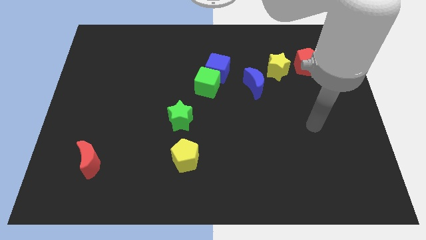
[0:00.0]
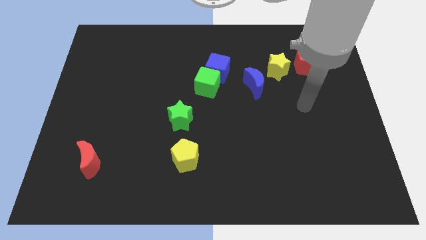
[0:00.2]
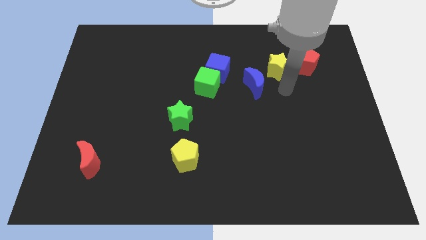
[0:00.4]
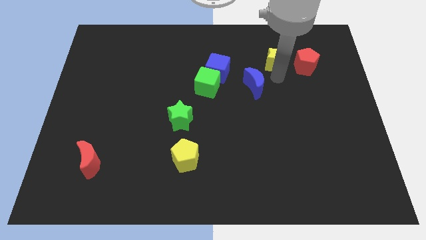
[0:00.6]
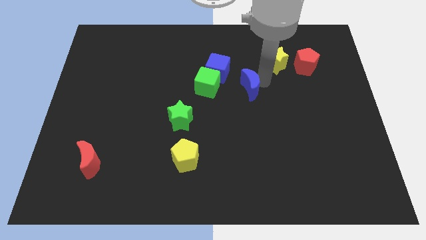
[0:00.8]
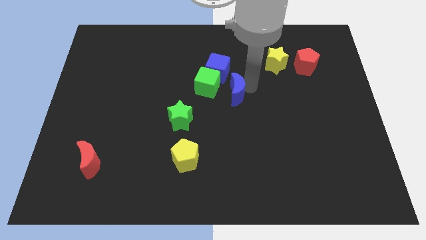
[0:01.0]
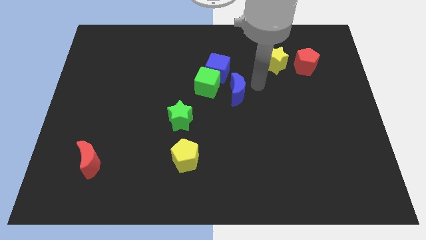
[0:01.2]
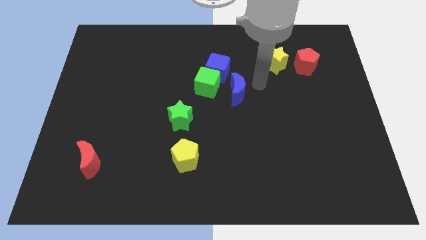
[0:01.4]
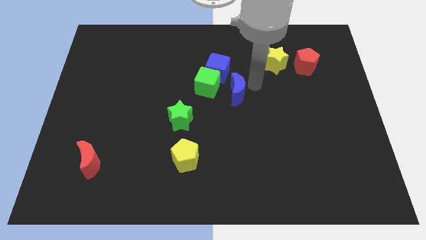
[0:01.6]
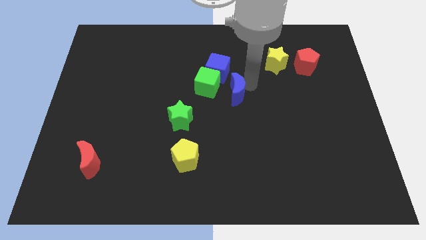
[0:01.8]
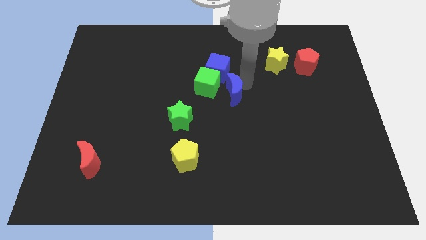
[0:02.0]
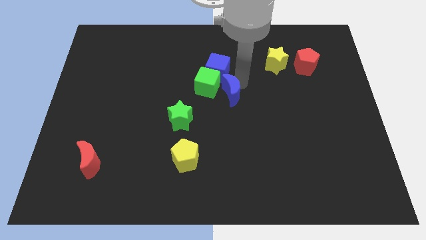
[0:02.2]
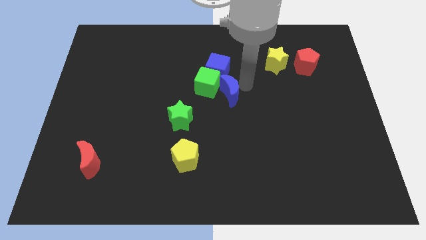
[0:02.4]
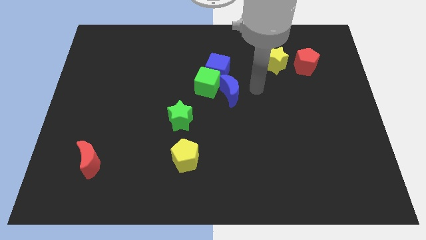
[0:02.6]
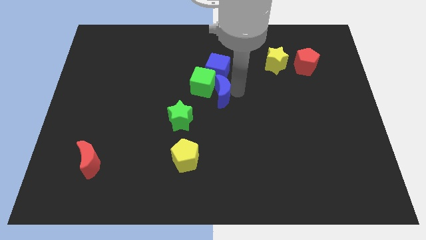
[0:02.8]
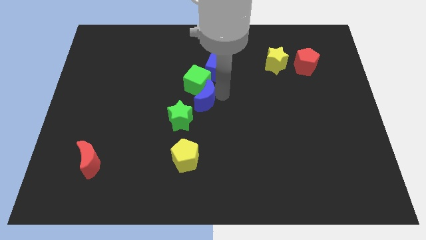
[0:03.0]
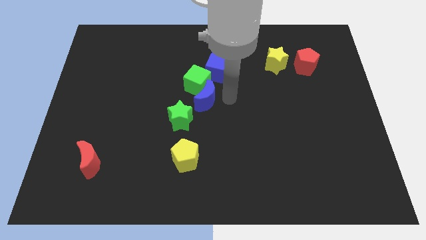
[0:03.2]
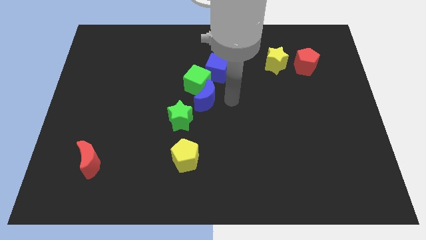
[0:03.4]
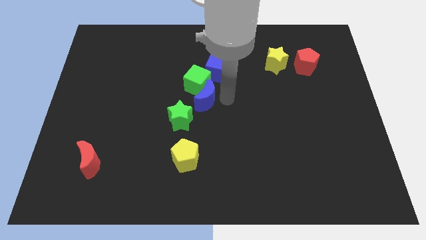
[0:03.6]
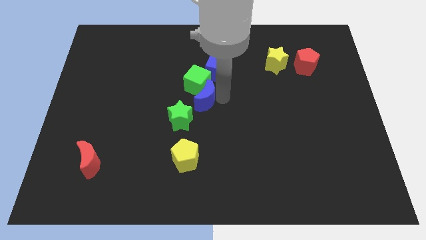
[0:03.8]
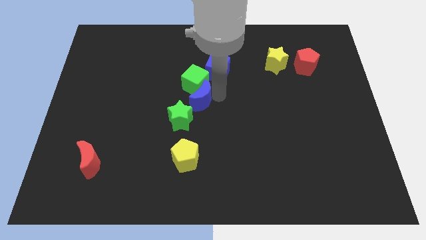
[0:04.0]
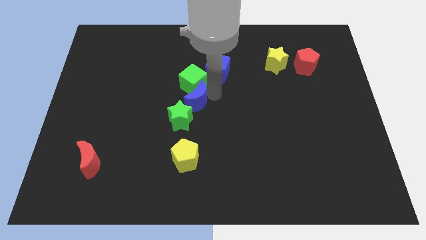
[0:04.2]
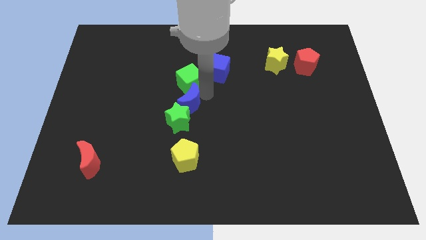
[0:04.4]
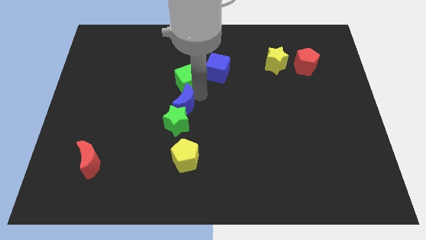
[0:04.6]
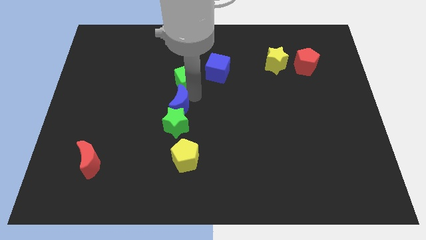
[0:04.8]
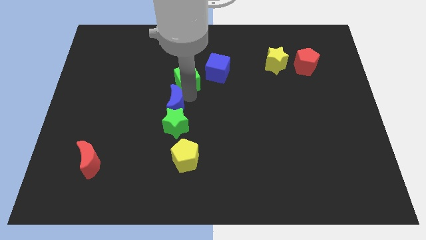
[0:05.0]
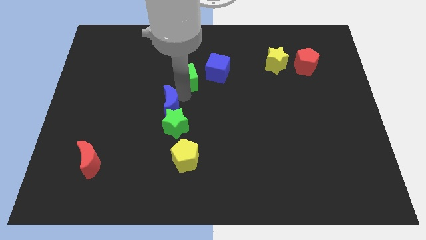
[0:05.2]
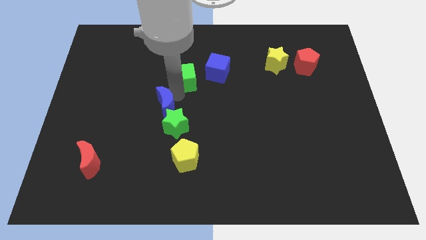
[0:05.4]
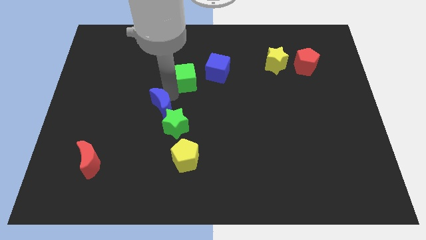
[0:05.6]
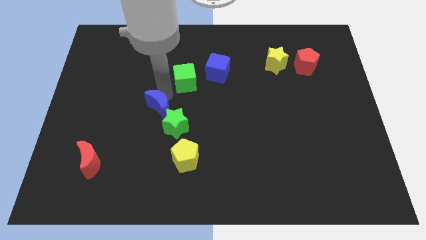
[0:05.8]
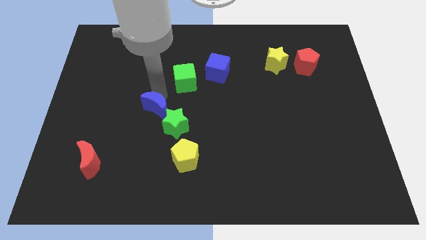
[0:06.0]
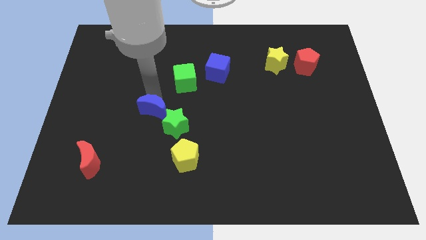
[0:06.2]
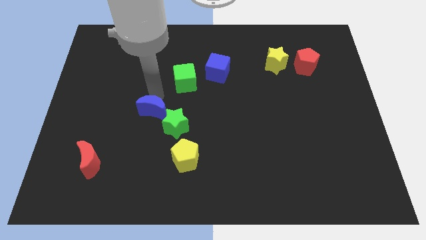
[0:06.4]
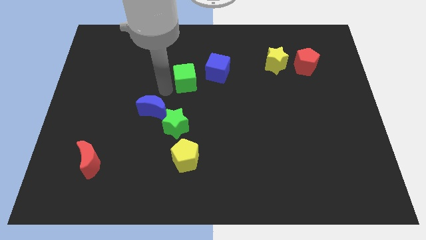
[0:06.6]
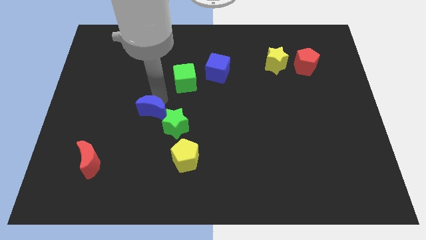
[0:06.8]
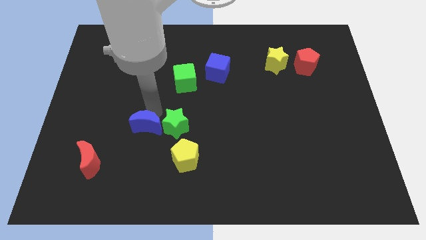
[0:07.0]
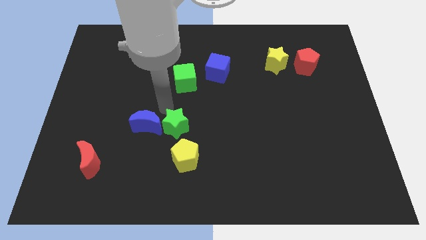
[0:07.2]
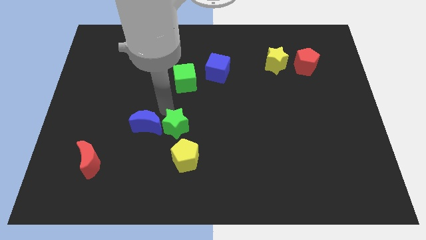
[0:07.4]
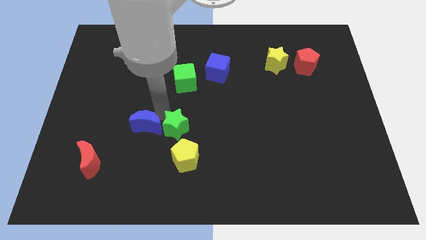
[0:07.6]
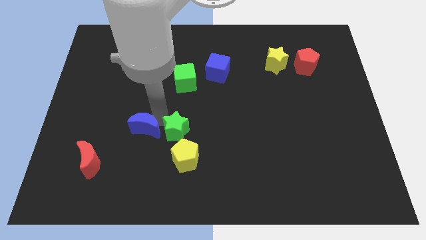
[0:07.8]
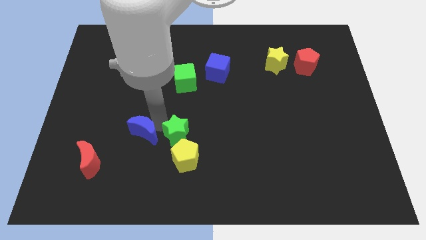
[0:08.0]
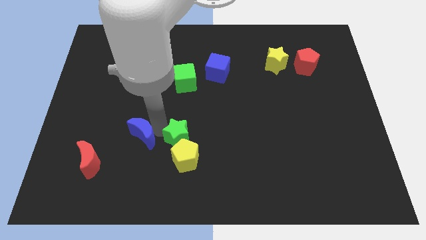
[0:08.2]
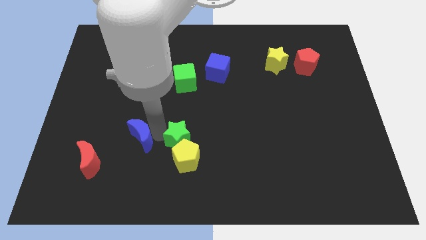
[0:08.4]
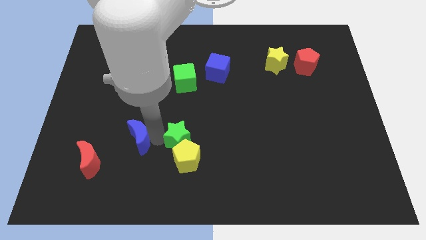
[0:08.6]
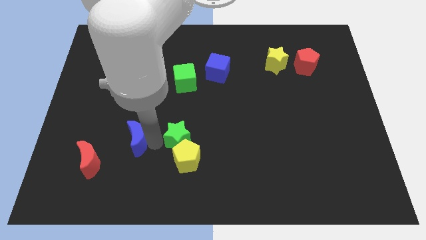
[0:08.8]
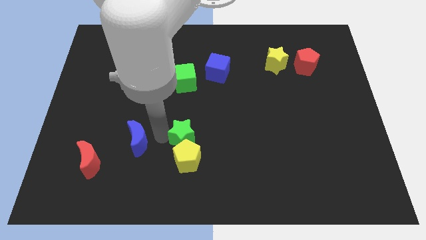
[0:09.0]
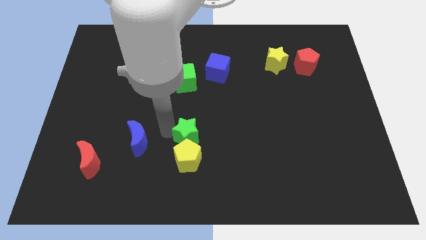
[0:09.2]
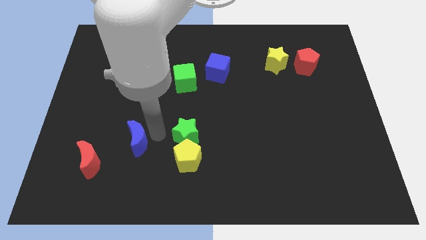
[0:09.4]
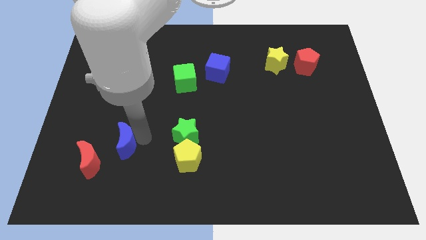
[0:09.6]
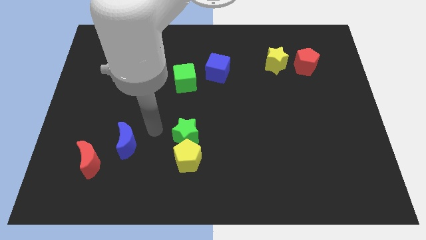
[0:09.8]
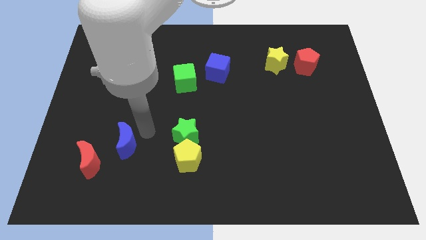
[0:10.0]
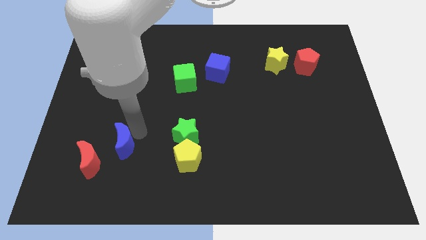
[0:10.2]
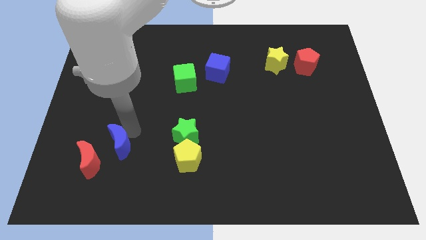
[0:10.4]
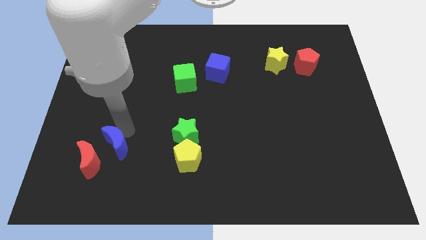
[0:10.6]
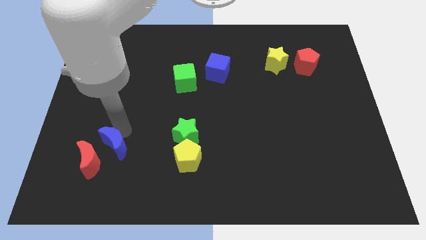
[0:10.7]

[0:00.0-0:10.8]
put the blue moon next to the red moon

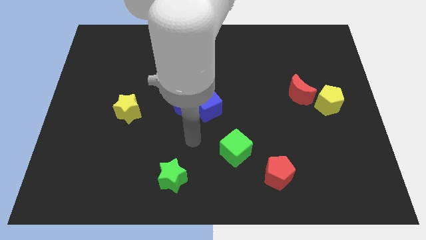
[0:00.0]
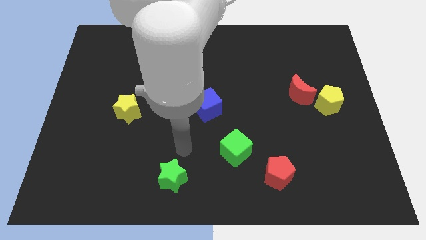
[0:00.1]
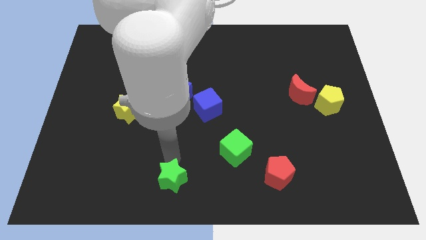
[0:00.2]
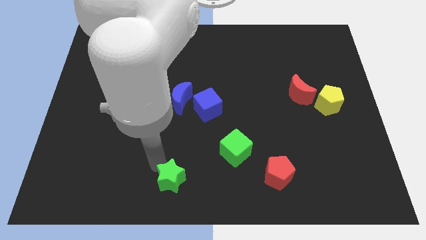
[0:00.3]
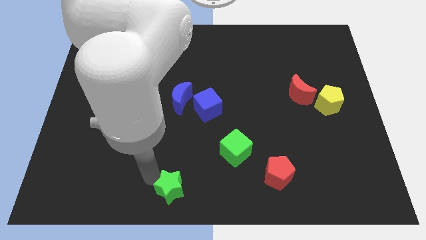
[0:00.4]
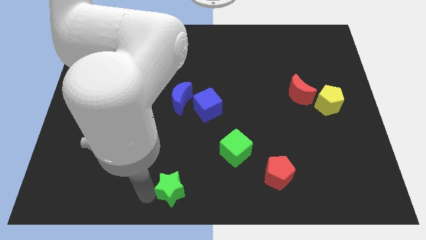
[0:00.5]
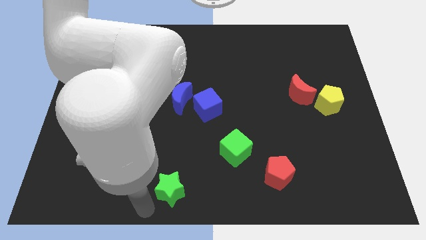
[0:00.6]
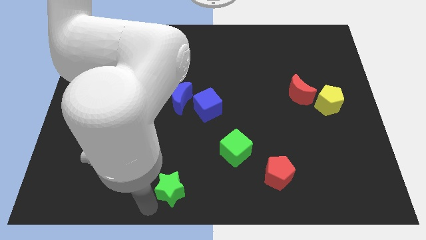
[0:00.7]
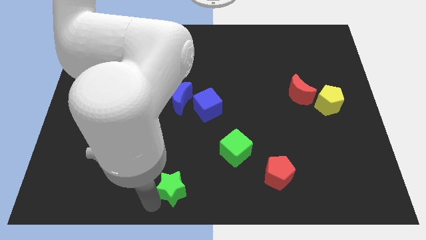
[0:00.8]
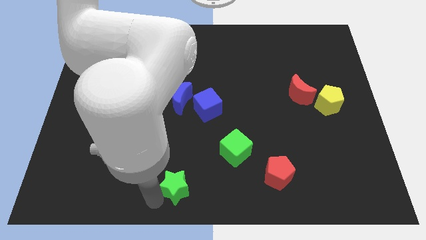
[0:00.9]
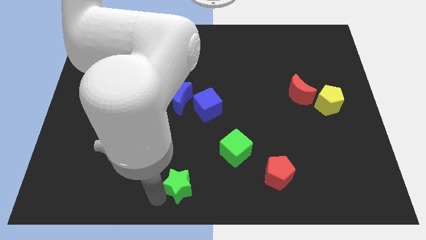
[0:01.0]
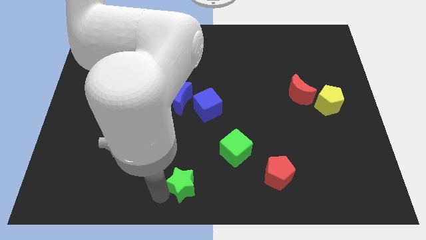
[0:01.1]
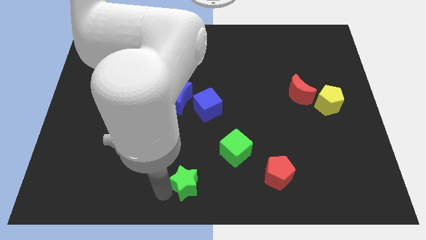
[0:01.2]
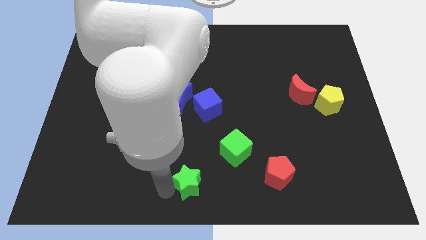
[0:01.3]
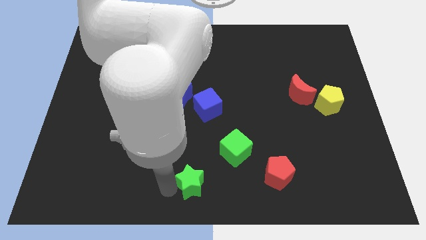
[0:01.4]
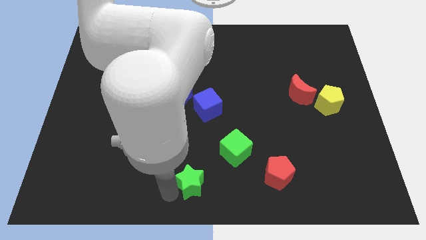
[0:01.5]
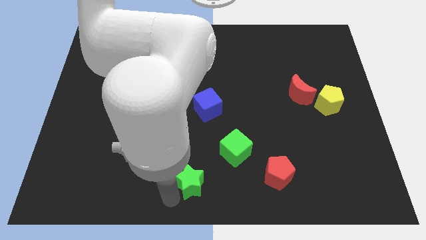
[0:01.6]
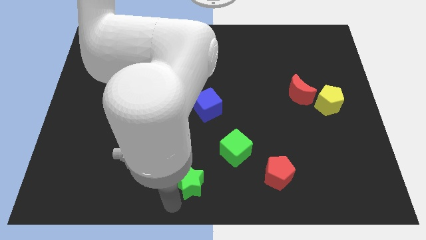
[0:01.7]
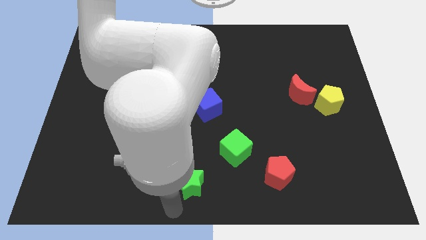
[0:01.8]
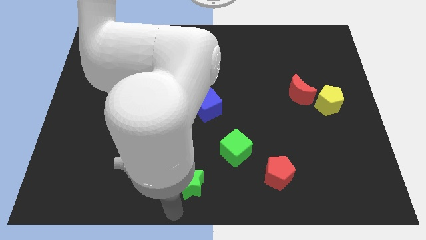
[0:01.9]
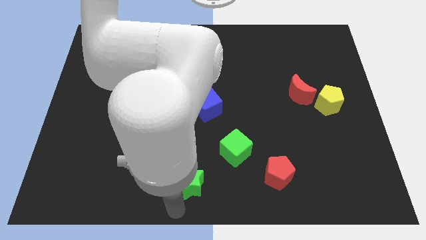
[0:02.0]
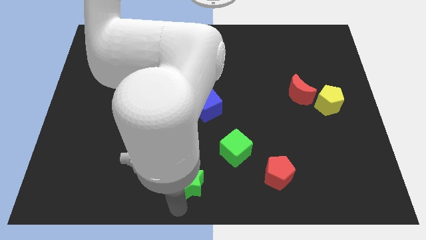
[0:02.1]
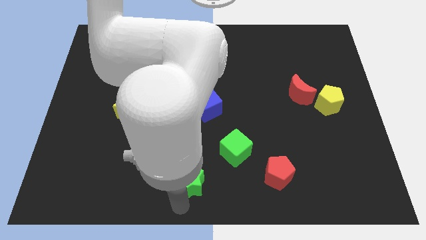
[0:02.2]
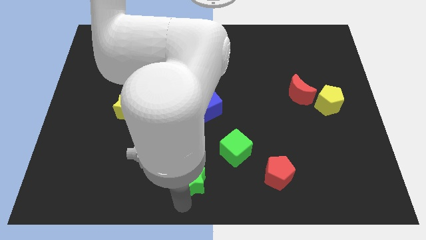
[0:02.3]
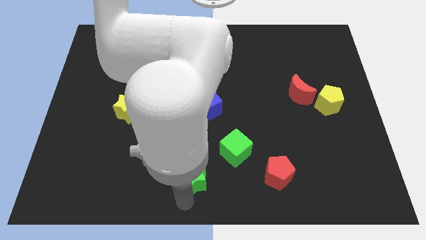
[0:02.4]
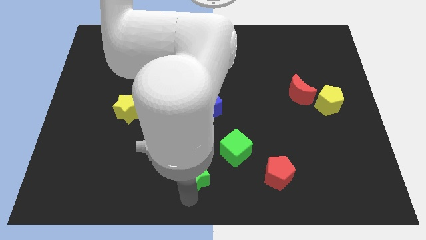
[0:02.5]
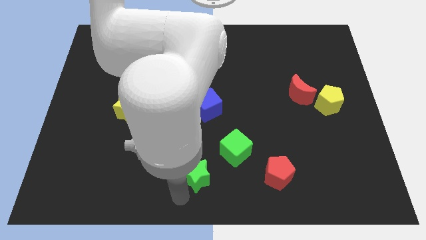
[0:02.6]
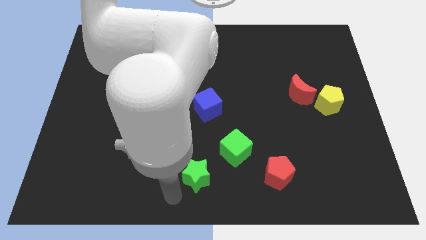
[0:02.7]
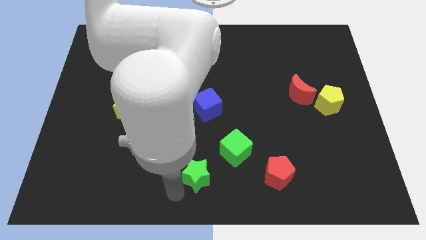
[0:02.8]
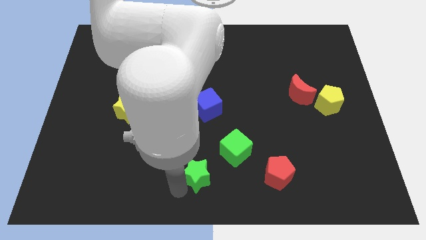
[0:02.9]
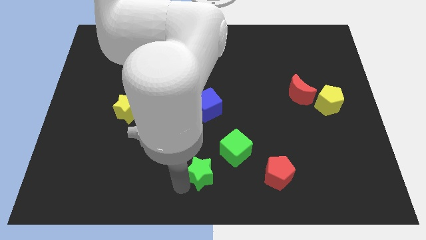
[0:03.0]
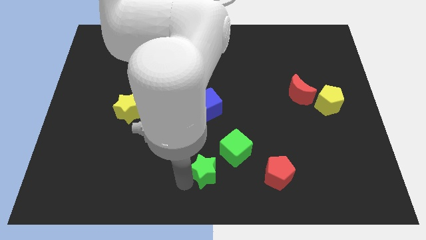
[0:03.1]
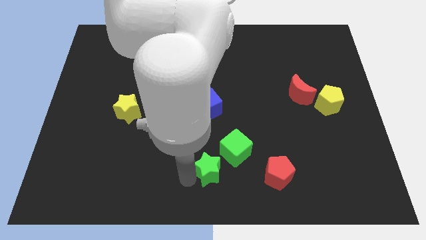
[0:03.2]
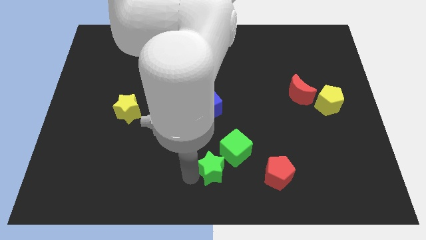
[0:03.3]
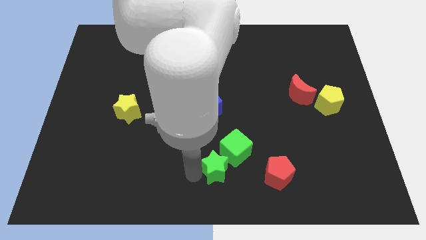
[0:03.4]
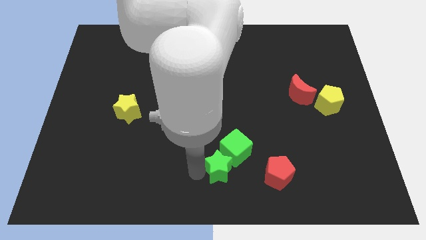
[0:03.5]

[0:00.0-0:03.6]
push the green star to the green cube
